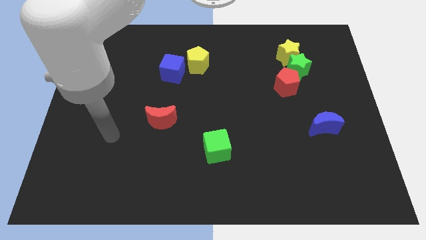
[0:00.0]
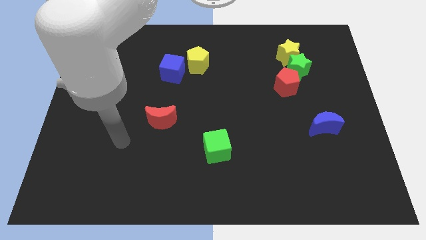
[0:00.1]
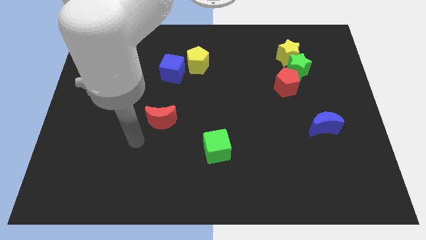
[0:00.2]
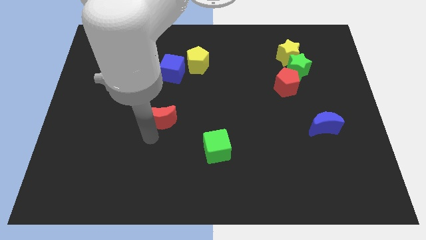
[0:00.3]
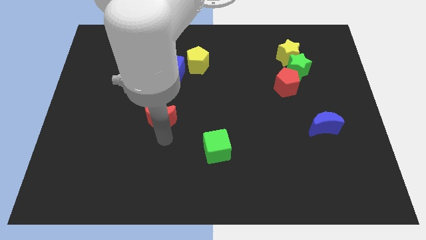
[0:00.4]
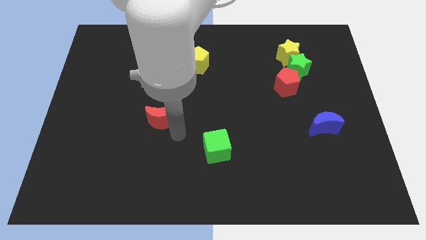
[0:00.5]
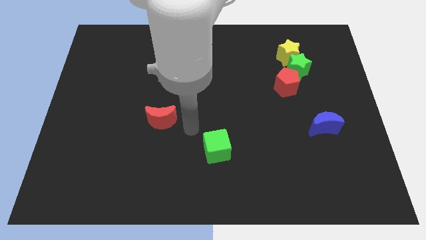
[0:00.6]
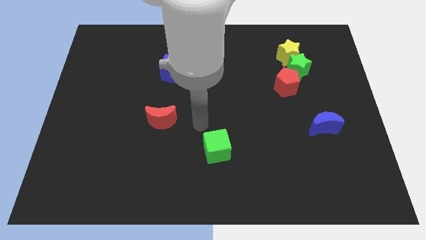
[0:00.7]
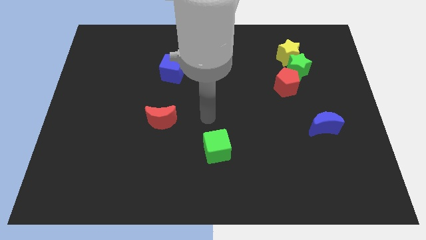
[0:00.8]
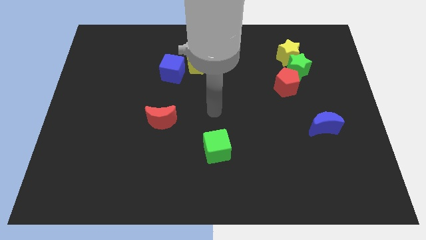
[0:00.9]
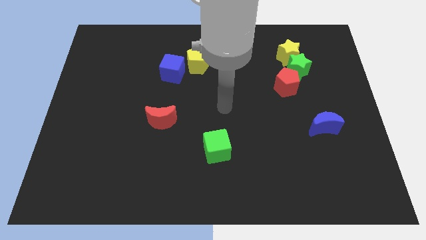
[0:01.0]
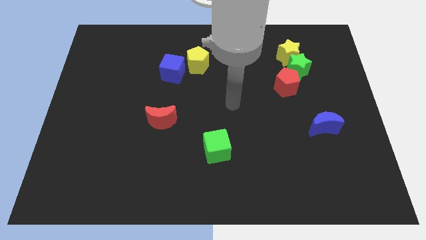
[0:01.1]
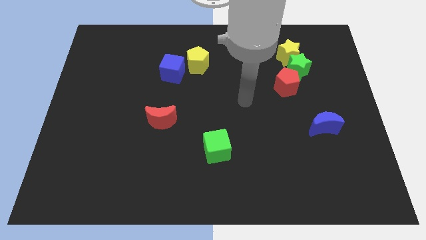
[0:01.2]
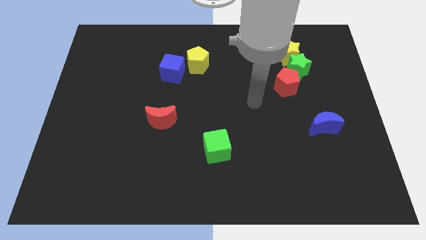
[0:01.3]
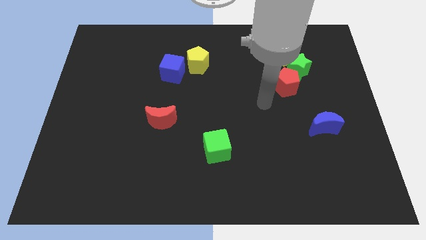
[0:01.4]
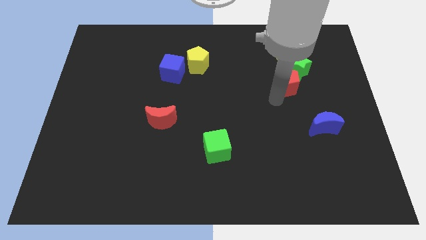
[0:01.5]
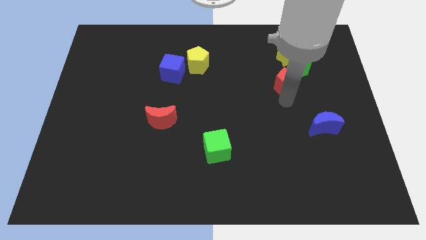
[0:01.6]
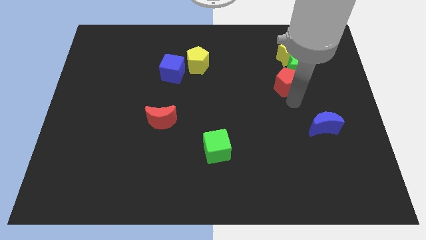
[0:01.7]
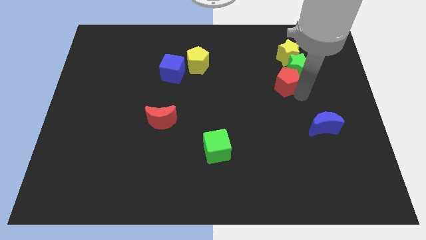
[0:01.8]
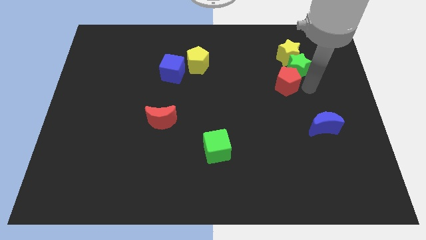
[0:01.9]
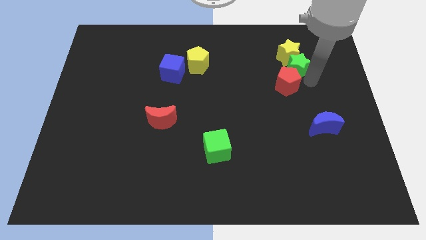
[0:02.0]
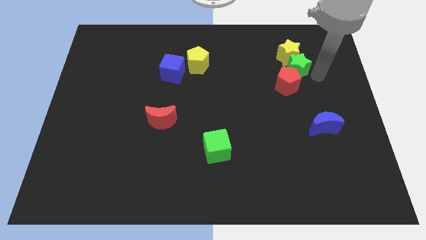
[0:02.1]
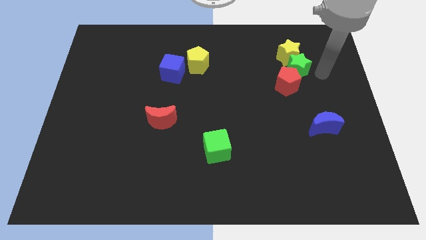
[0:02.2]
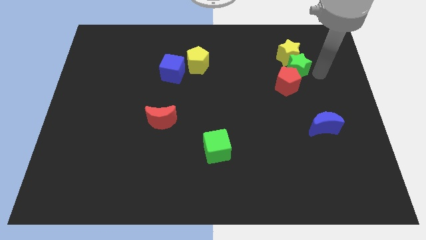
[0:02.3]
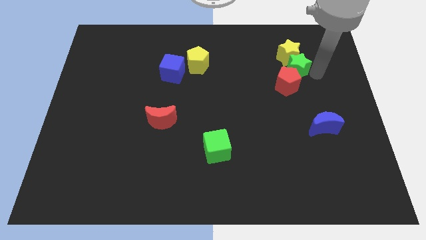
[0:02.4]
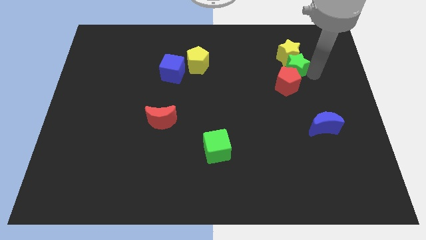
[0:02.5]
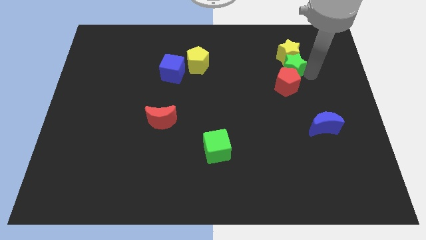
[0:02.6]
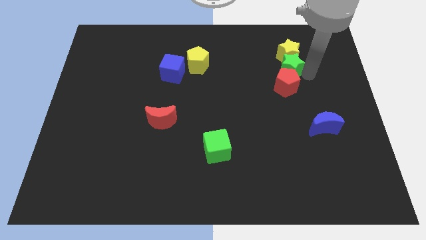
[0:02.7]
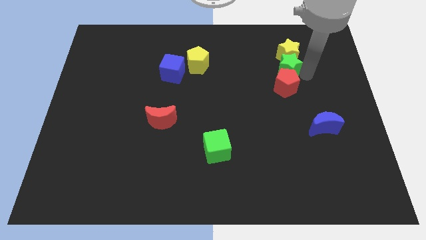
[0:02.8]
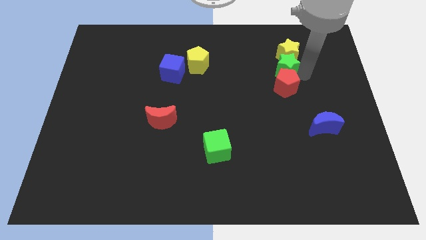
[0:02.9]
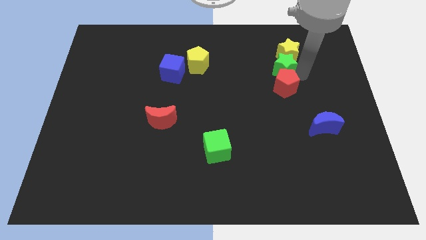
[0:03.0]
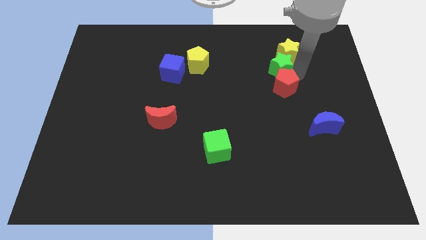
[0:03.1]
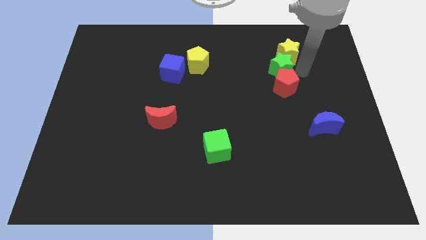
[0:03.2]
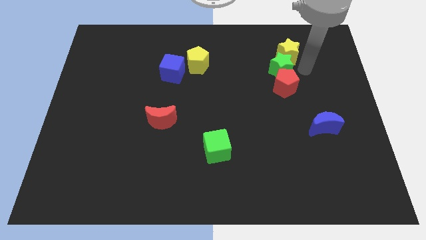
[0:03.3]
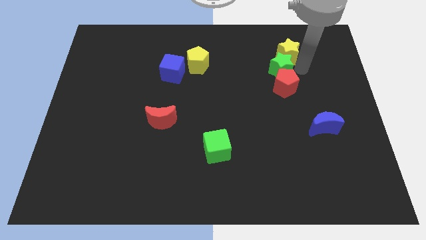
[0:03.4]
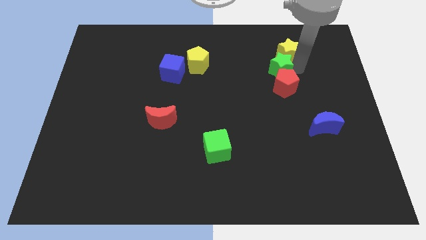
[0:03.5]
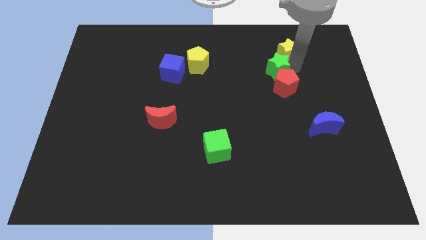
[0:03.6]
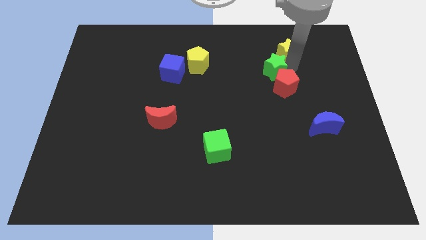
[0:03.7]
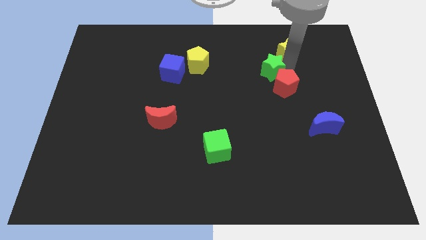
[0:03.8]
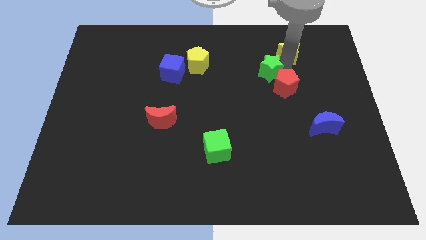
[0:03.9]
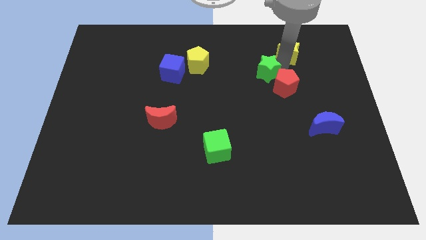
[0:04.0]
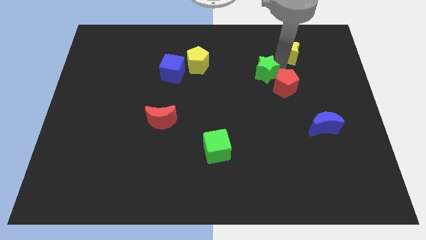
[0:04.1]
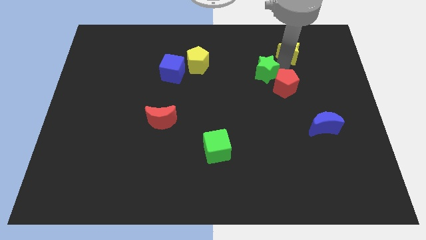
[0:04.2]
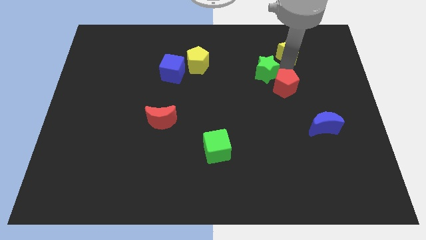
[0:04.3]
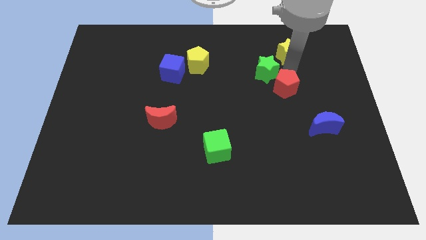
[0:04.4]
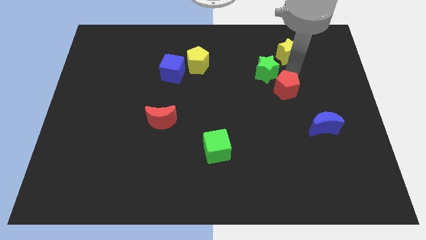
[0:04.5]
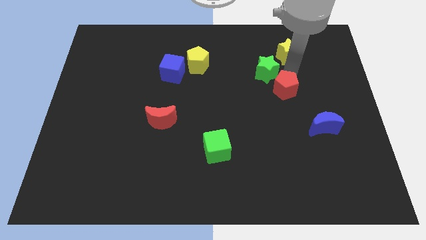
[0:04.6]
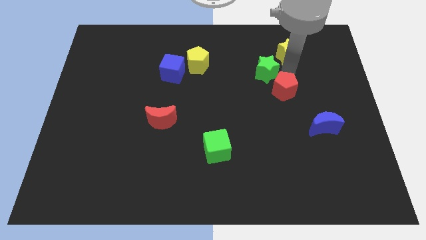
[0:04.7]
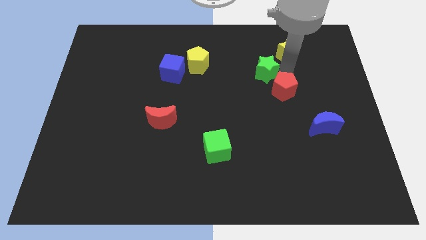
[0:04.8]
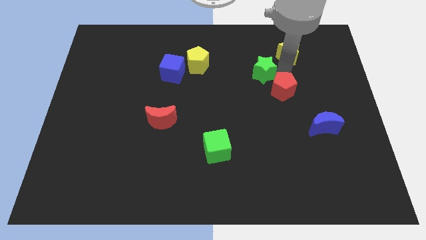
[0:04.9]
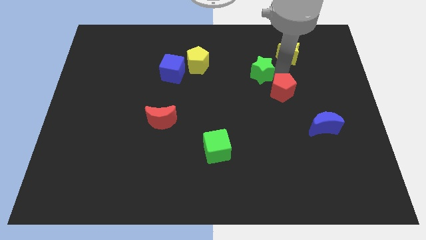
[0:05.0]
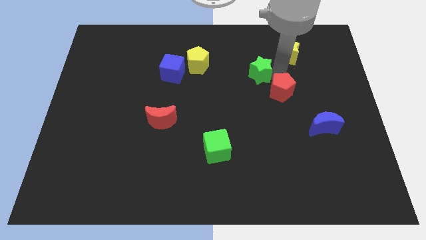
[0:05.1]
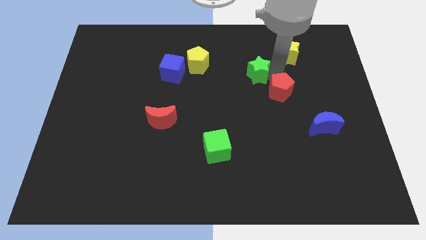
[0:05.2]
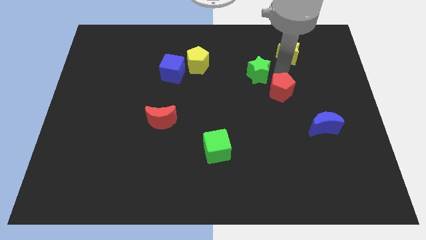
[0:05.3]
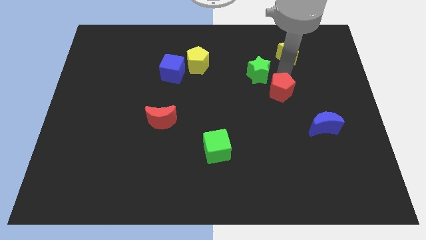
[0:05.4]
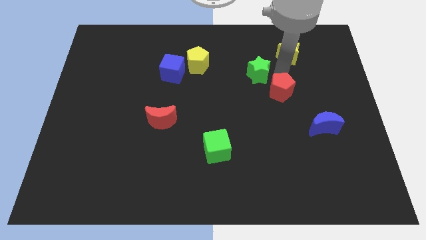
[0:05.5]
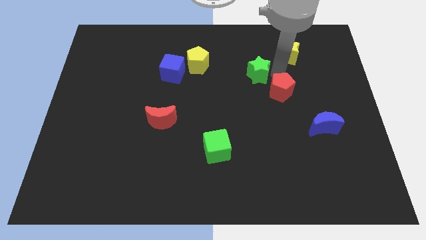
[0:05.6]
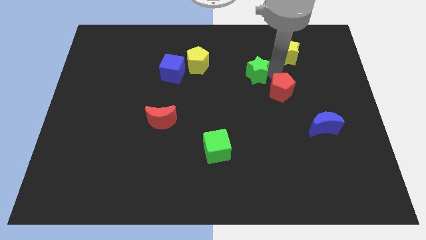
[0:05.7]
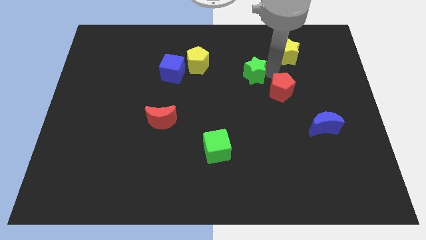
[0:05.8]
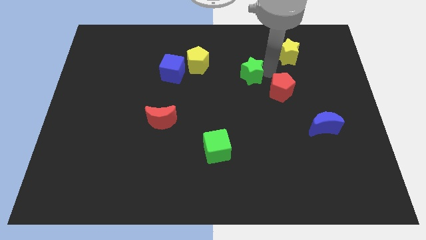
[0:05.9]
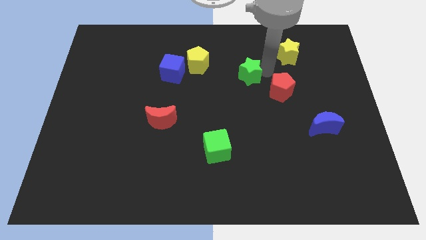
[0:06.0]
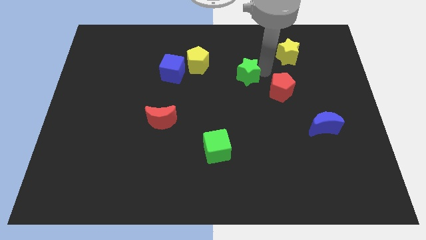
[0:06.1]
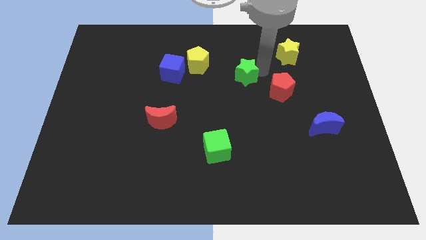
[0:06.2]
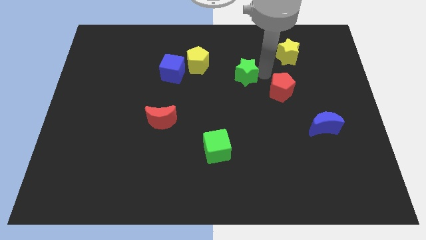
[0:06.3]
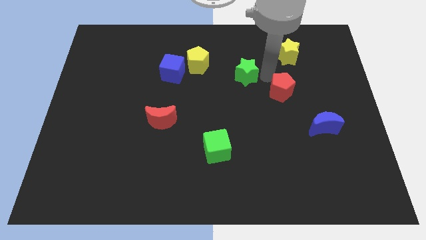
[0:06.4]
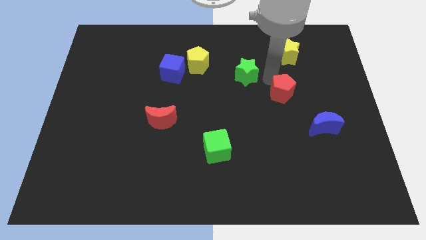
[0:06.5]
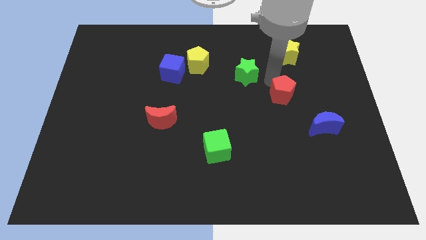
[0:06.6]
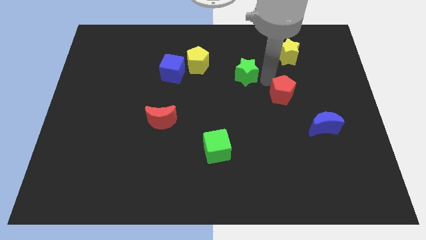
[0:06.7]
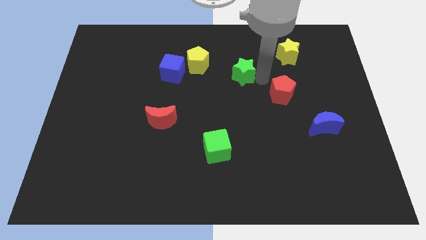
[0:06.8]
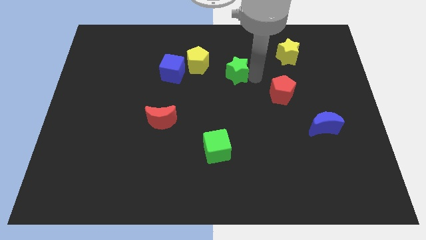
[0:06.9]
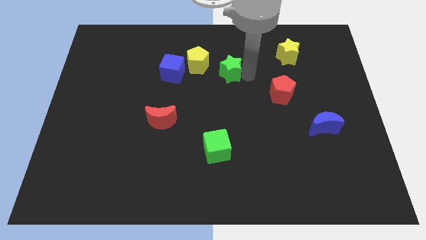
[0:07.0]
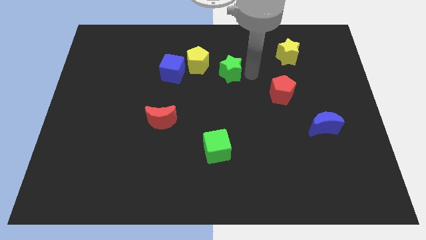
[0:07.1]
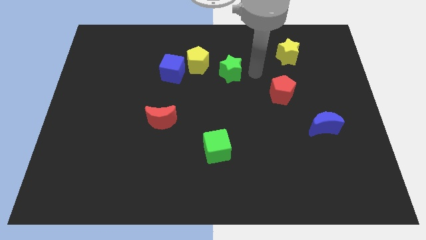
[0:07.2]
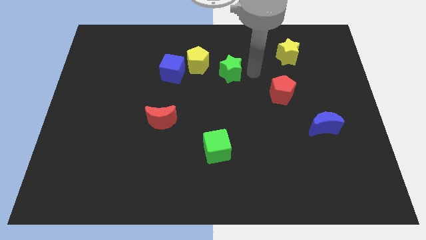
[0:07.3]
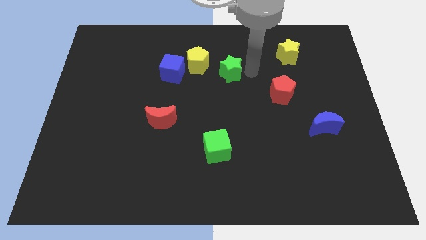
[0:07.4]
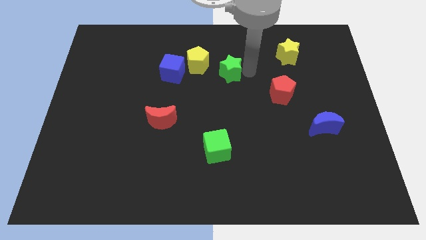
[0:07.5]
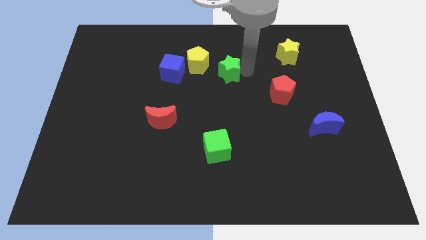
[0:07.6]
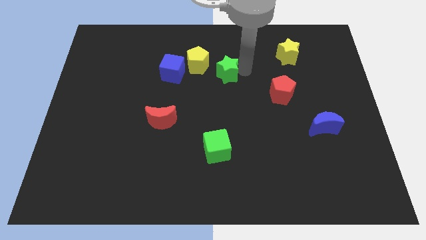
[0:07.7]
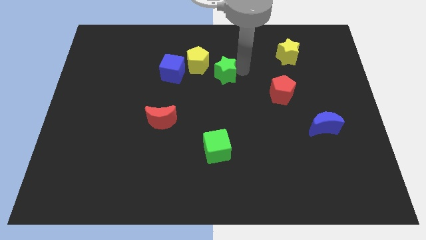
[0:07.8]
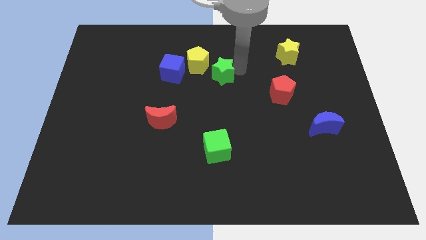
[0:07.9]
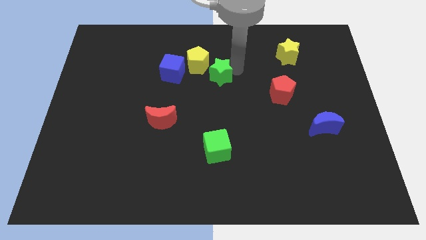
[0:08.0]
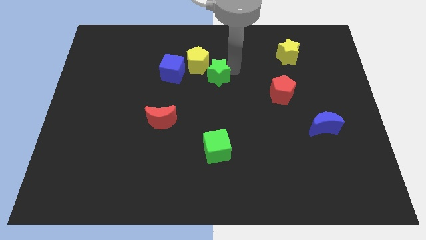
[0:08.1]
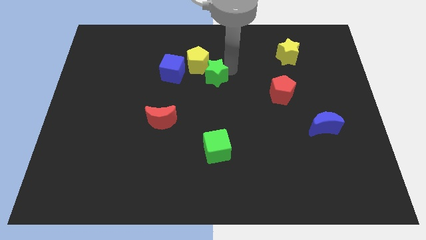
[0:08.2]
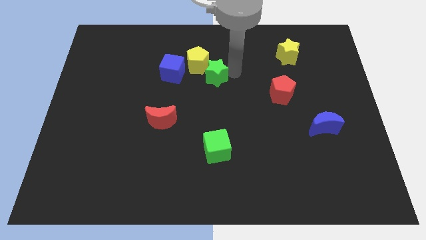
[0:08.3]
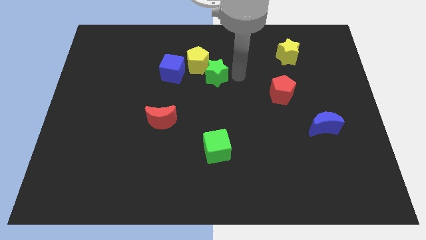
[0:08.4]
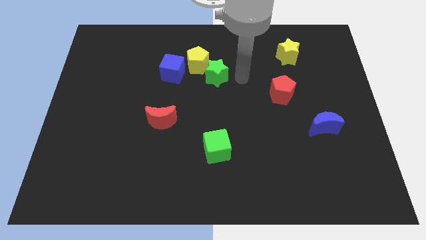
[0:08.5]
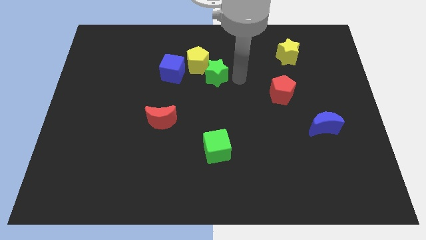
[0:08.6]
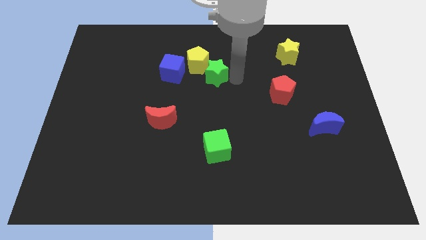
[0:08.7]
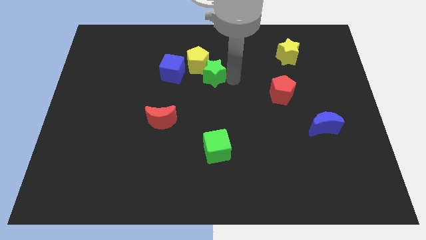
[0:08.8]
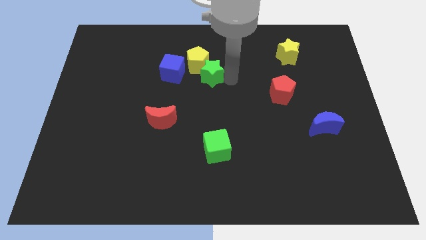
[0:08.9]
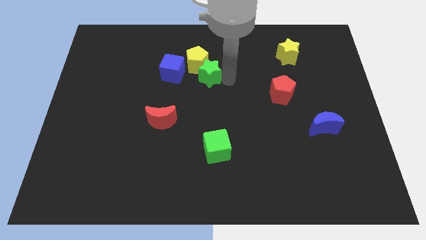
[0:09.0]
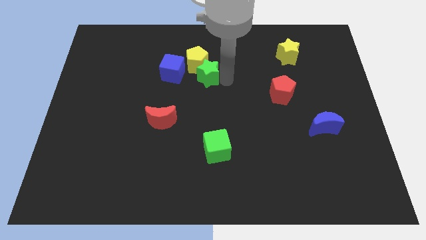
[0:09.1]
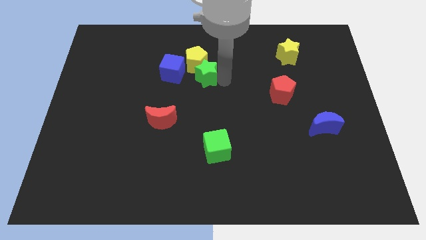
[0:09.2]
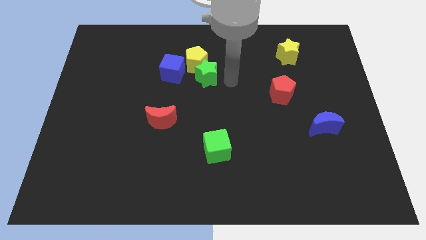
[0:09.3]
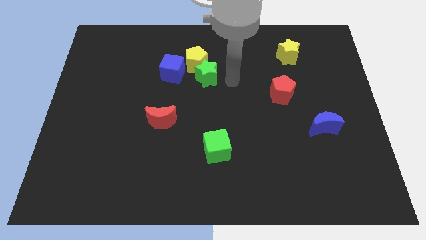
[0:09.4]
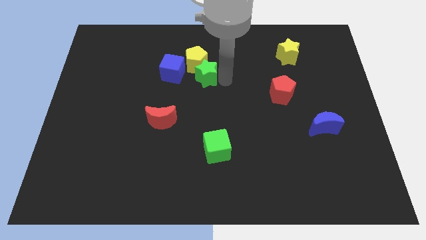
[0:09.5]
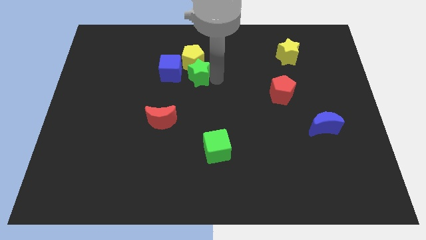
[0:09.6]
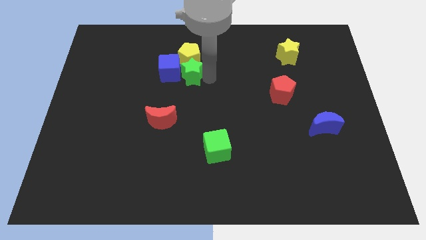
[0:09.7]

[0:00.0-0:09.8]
put the green star to the blue cube
